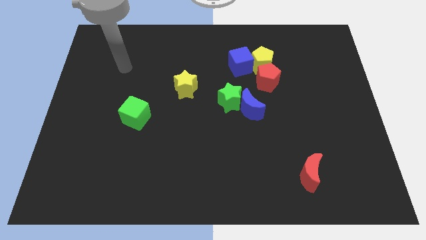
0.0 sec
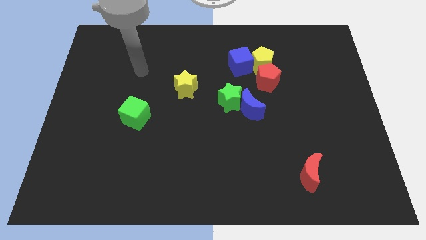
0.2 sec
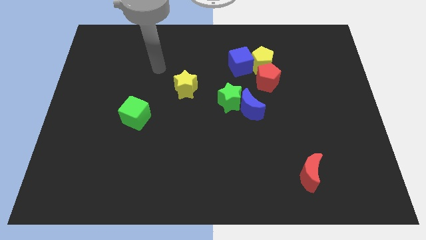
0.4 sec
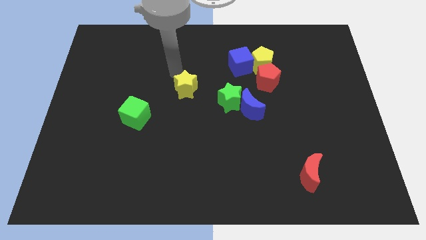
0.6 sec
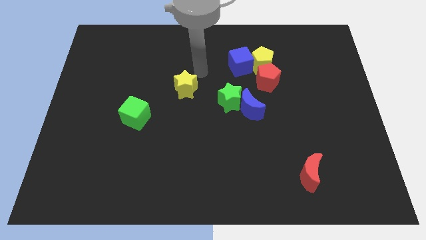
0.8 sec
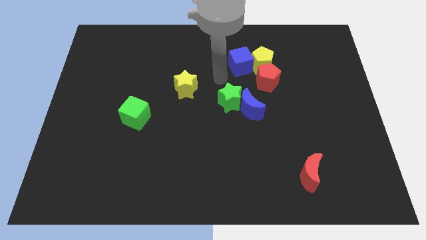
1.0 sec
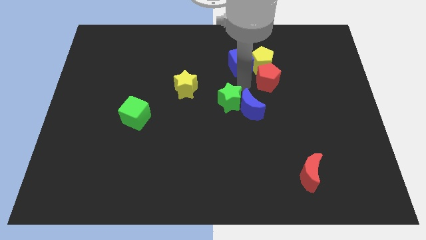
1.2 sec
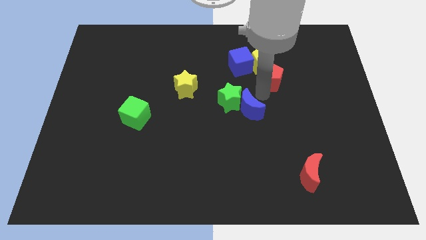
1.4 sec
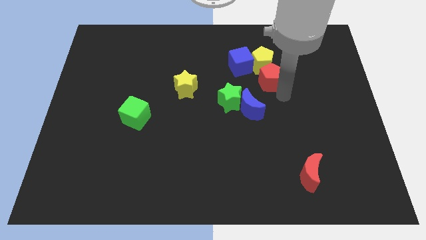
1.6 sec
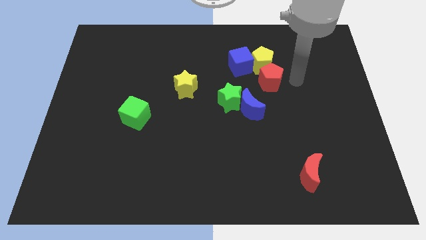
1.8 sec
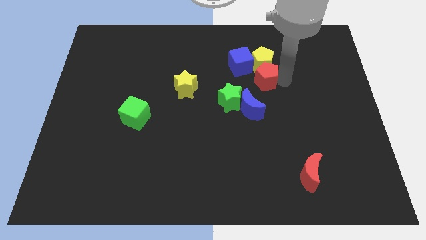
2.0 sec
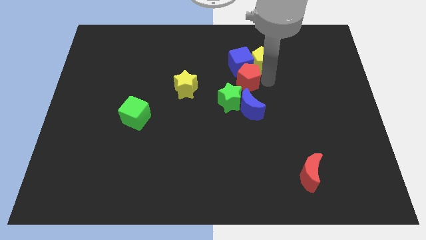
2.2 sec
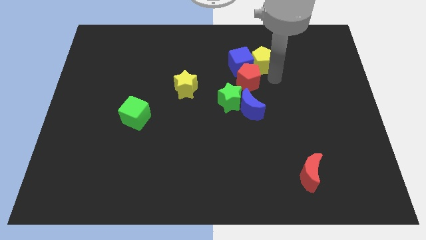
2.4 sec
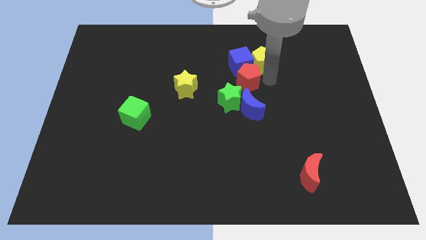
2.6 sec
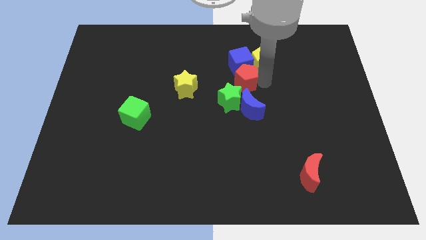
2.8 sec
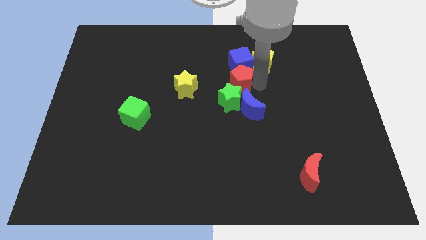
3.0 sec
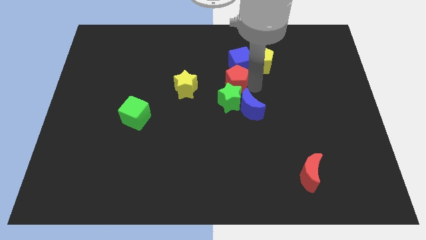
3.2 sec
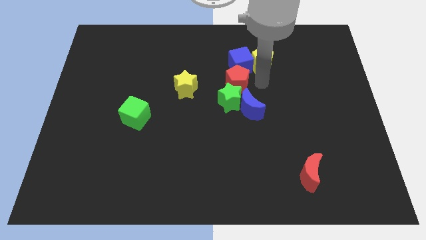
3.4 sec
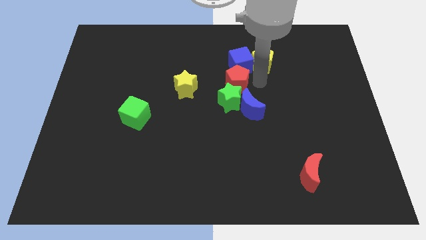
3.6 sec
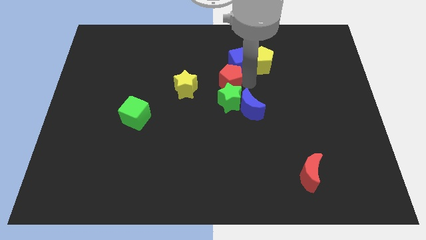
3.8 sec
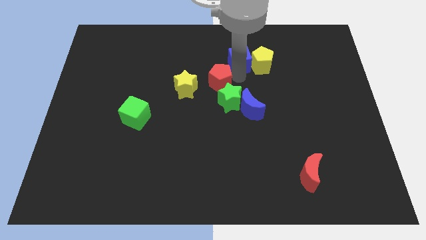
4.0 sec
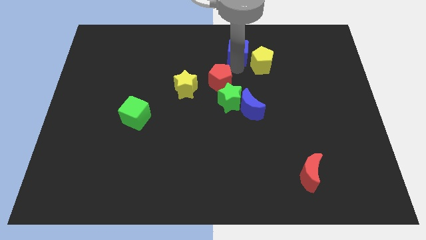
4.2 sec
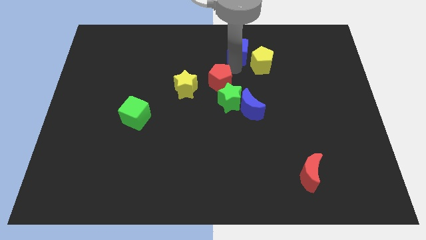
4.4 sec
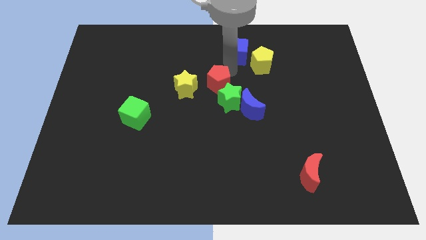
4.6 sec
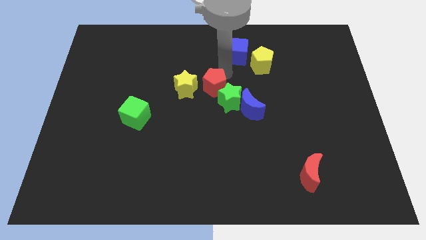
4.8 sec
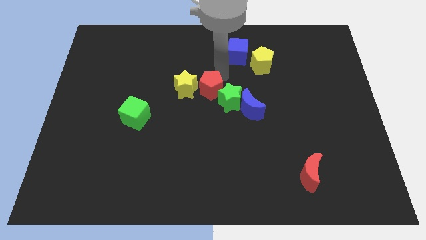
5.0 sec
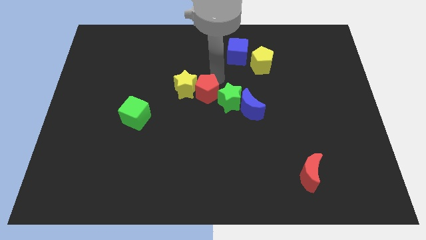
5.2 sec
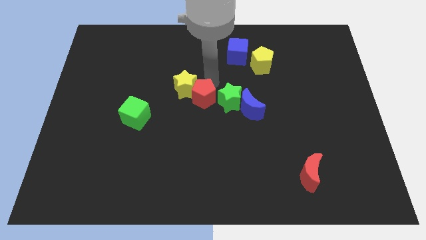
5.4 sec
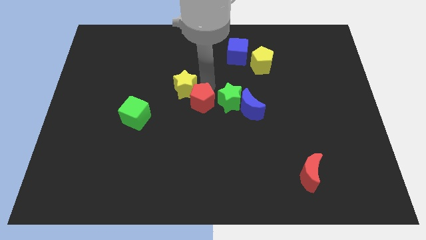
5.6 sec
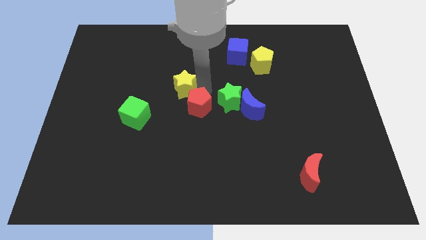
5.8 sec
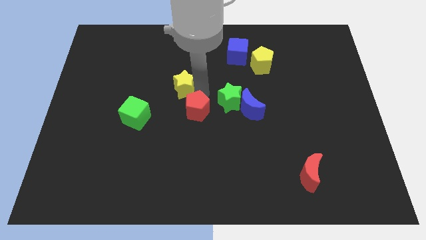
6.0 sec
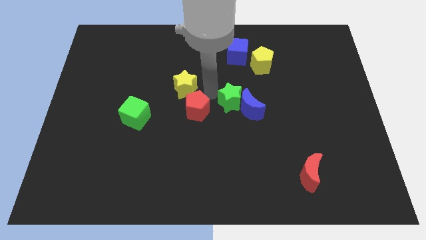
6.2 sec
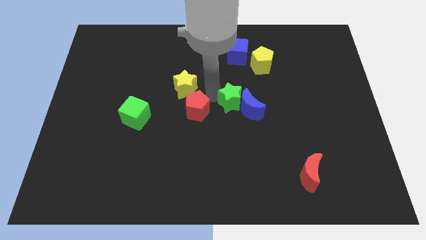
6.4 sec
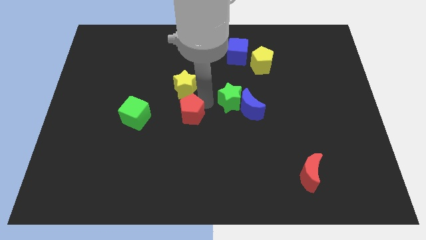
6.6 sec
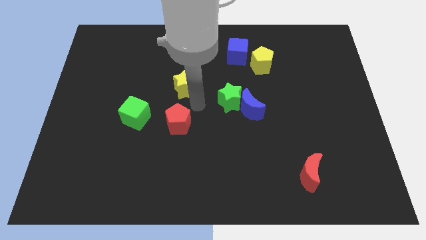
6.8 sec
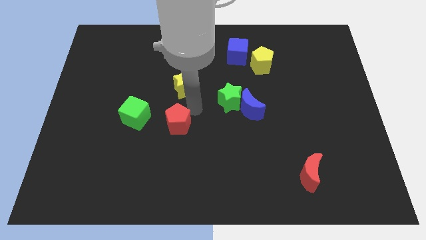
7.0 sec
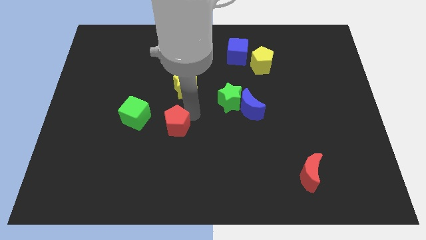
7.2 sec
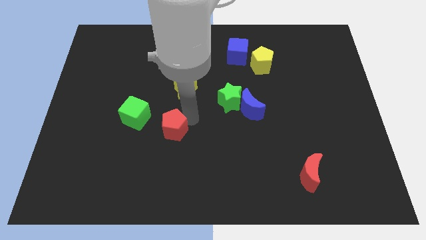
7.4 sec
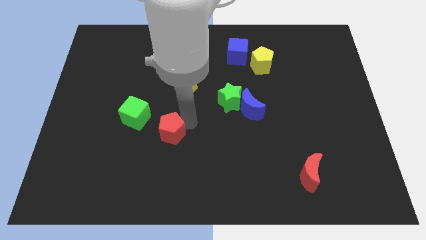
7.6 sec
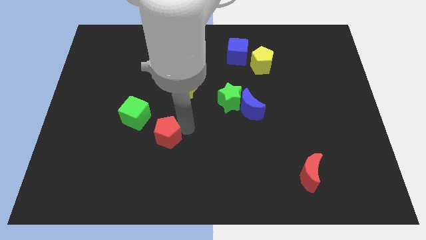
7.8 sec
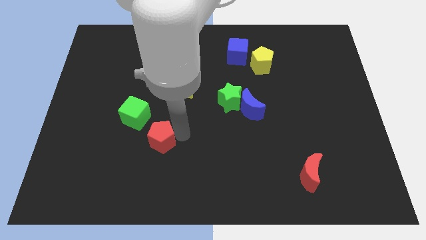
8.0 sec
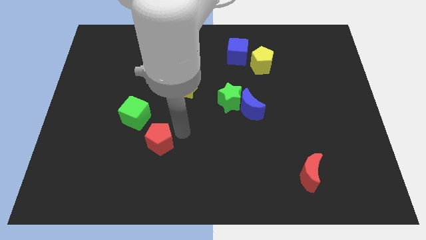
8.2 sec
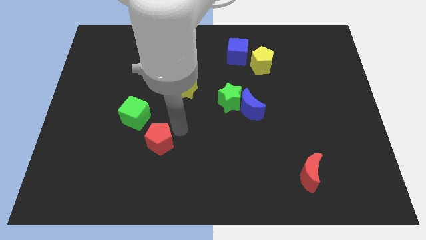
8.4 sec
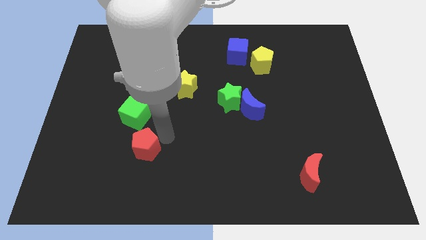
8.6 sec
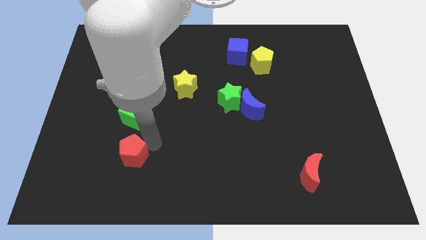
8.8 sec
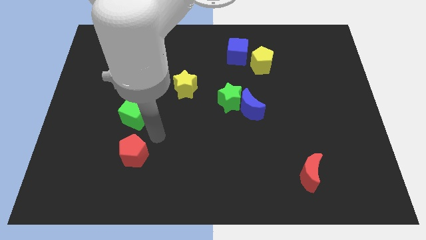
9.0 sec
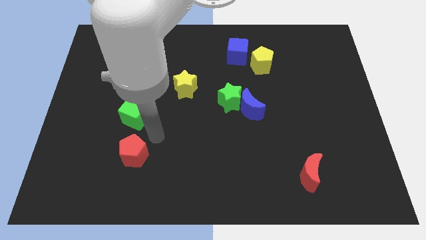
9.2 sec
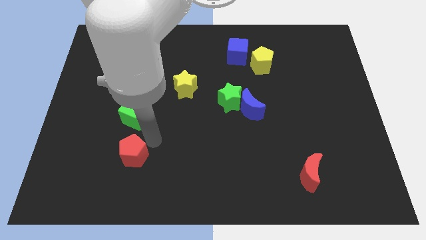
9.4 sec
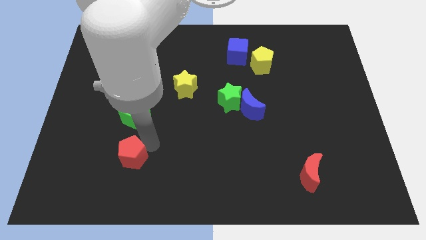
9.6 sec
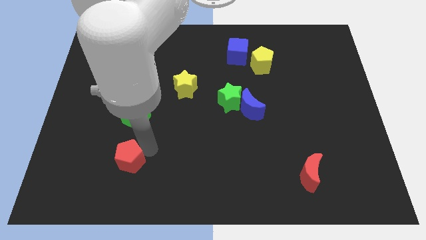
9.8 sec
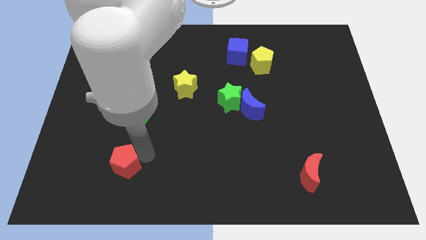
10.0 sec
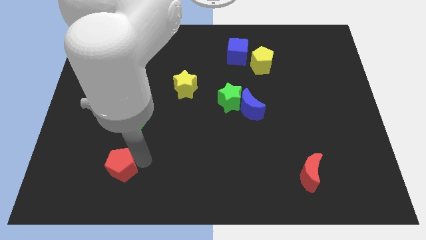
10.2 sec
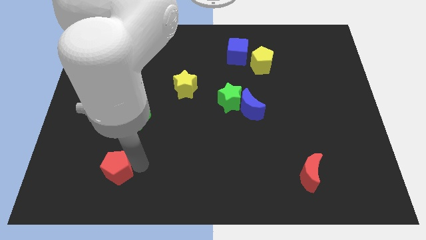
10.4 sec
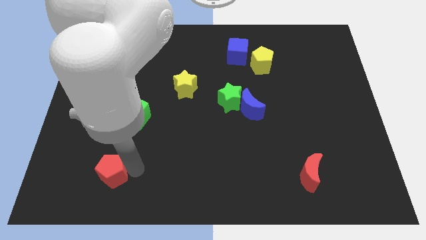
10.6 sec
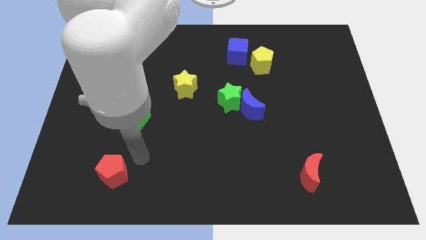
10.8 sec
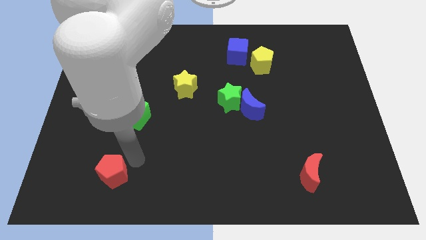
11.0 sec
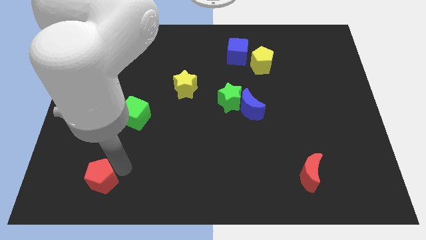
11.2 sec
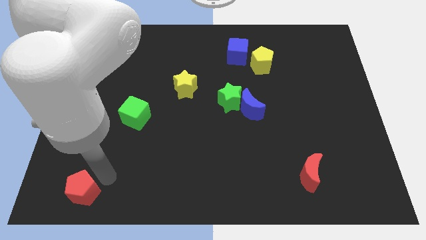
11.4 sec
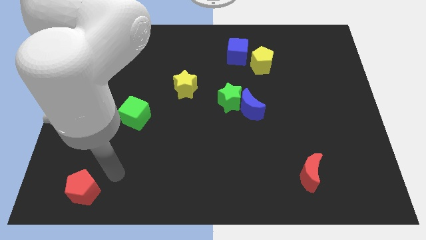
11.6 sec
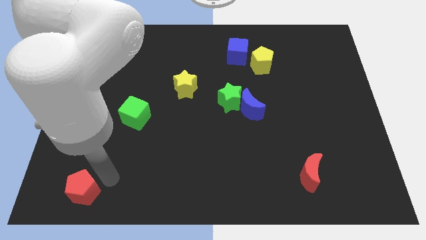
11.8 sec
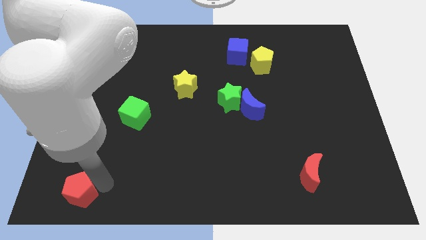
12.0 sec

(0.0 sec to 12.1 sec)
push the red pentagon to the bottom left of the board

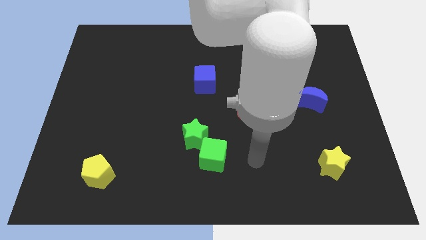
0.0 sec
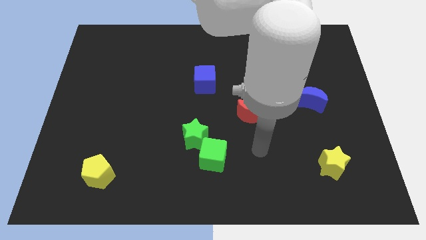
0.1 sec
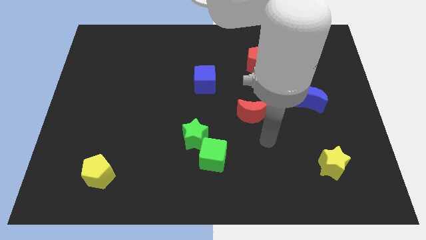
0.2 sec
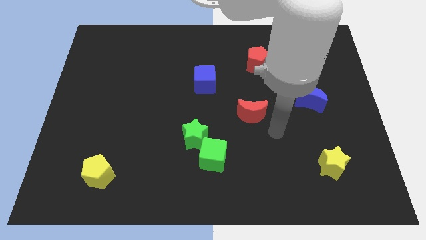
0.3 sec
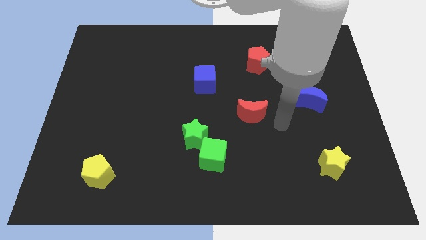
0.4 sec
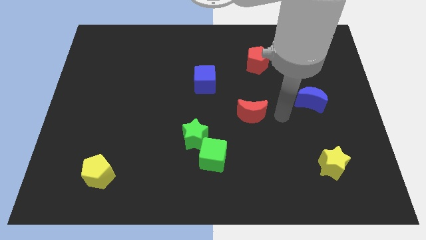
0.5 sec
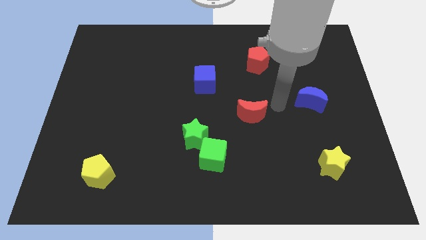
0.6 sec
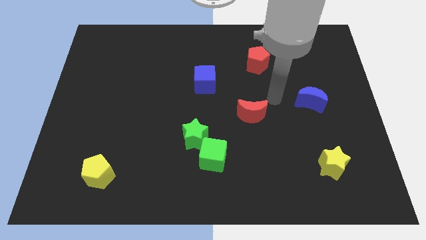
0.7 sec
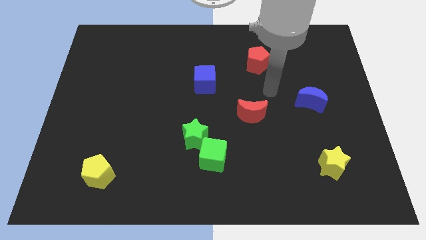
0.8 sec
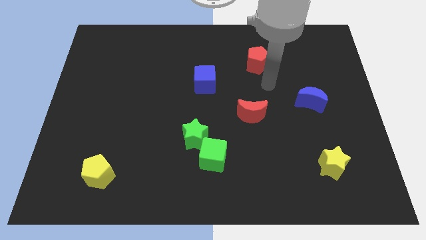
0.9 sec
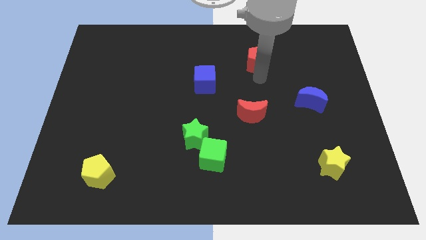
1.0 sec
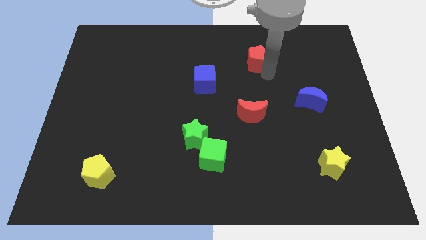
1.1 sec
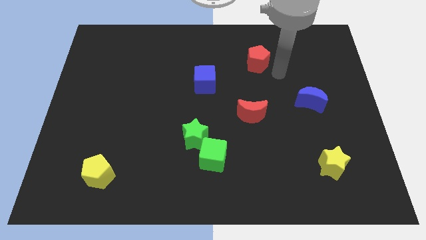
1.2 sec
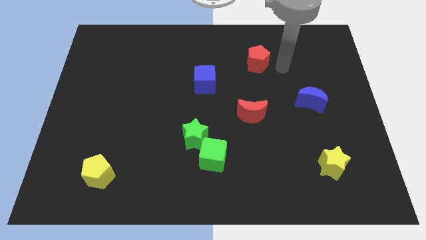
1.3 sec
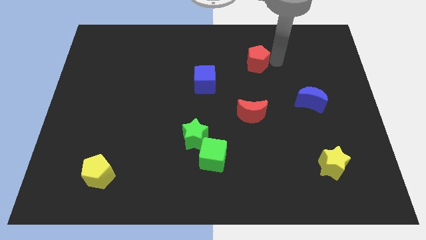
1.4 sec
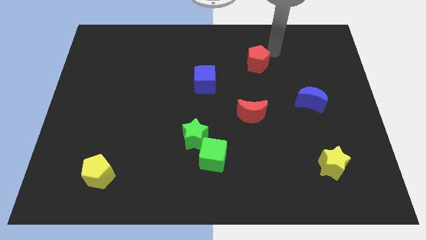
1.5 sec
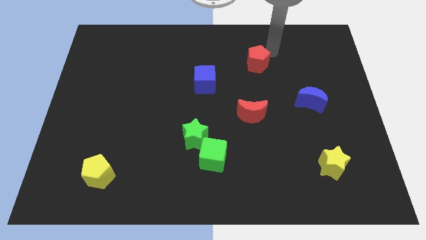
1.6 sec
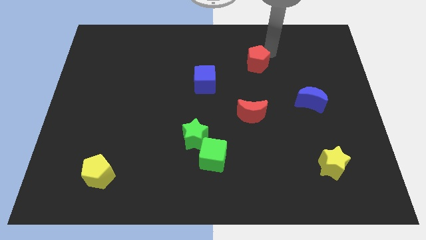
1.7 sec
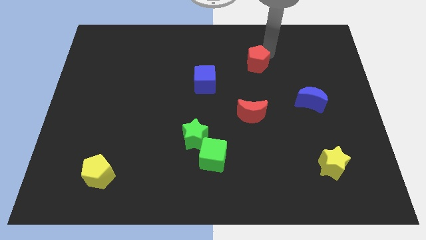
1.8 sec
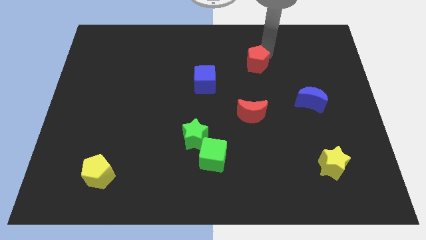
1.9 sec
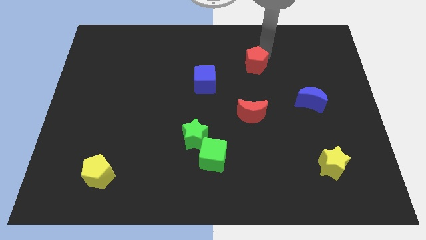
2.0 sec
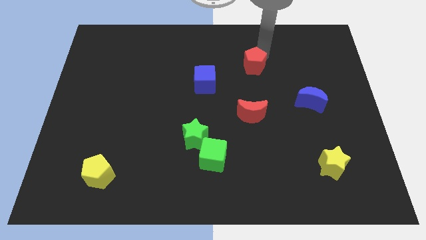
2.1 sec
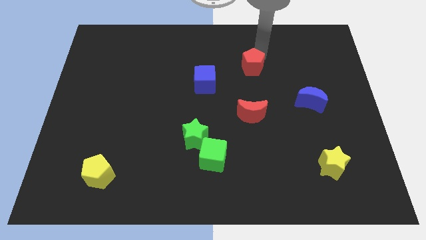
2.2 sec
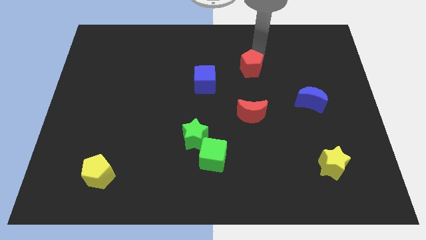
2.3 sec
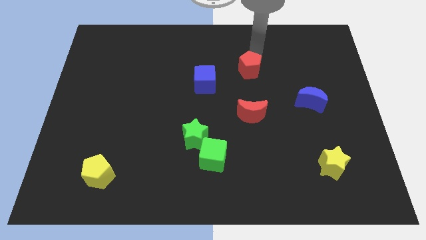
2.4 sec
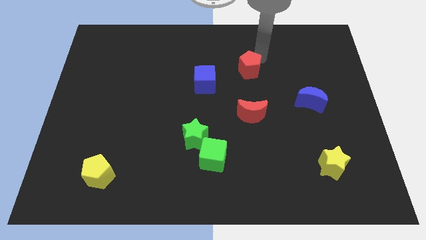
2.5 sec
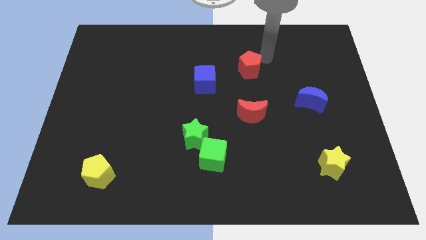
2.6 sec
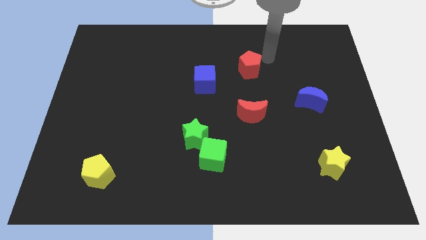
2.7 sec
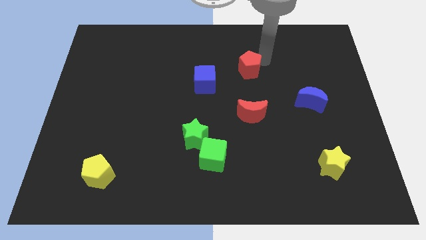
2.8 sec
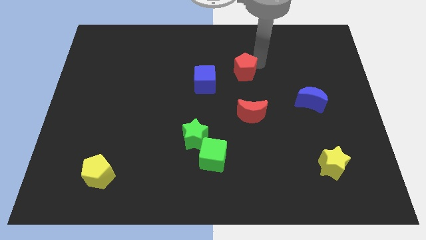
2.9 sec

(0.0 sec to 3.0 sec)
push the red pentagon to the middle
